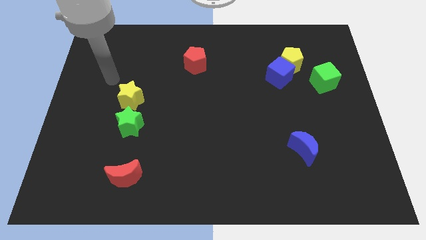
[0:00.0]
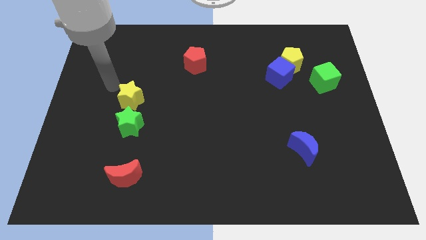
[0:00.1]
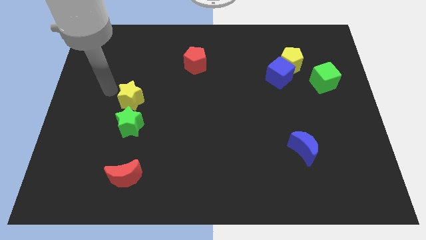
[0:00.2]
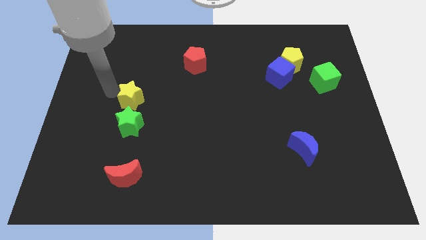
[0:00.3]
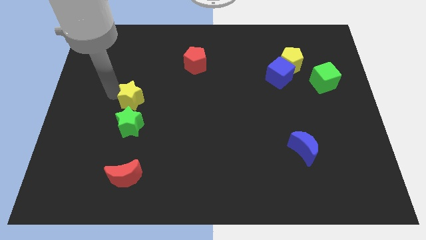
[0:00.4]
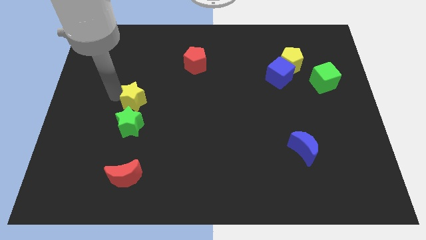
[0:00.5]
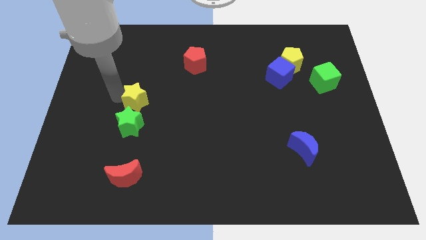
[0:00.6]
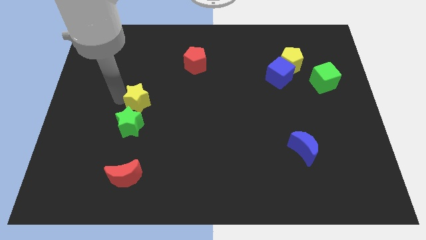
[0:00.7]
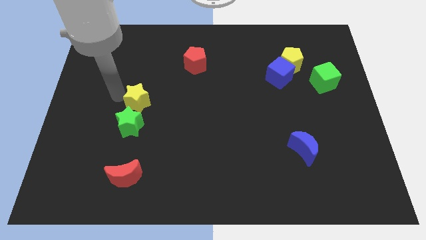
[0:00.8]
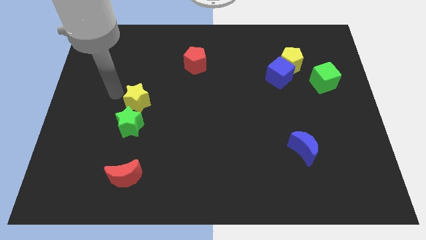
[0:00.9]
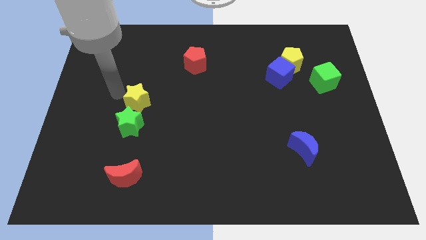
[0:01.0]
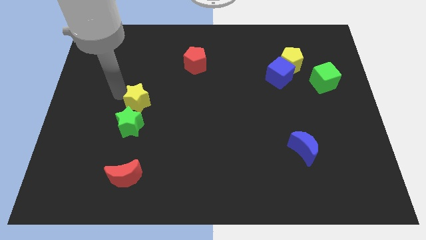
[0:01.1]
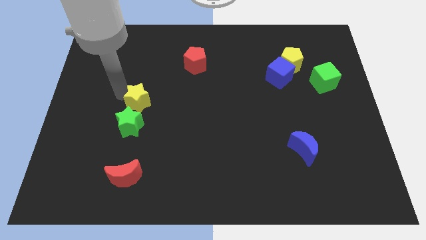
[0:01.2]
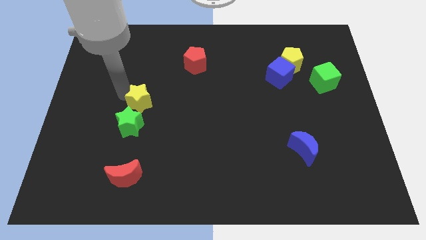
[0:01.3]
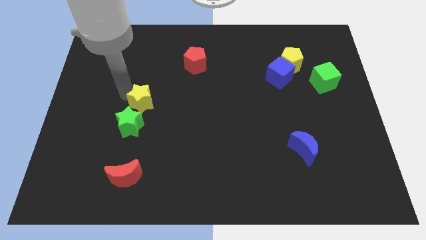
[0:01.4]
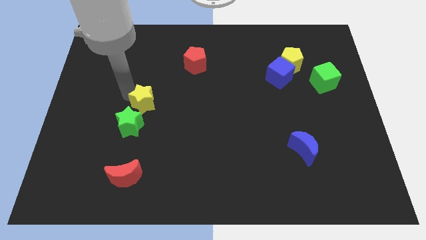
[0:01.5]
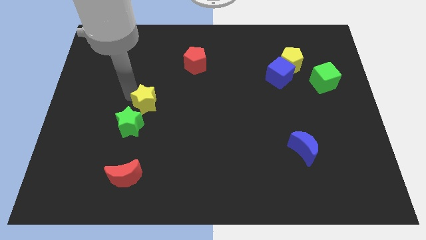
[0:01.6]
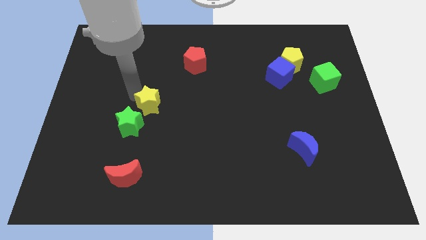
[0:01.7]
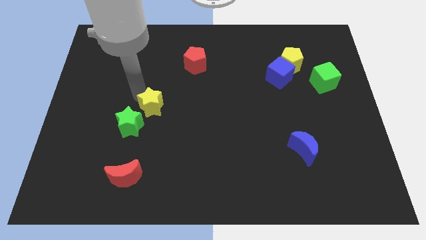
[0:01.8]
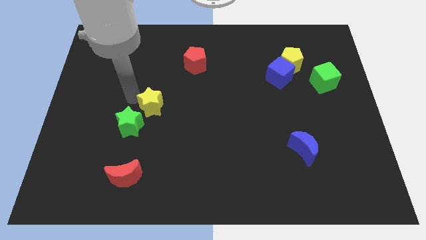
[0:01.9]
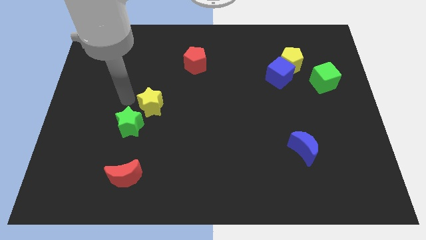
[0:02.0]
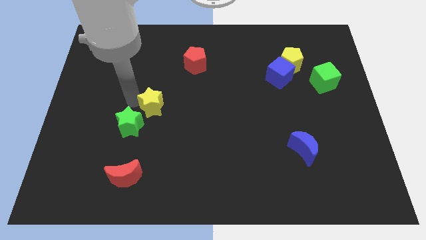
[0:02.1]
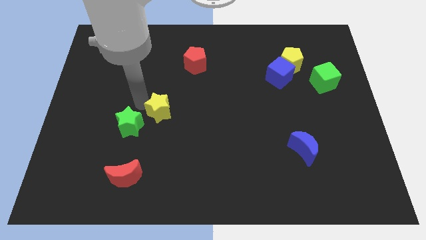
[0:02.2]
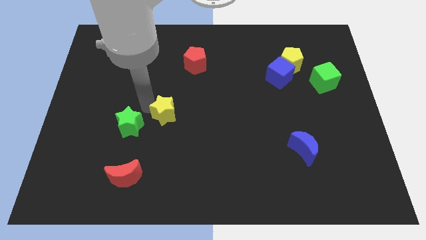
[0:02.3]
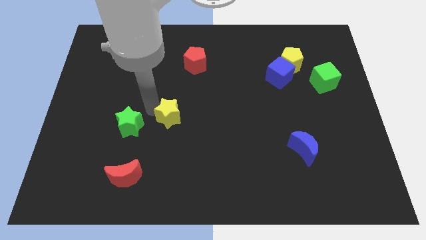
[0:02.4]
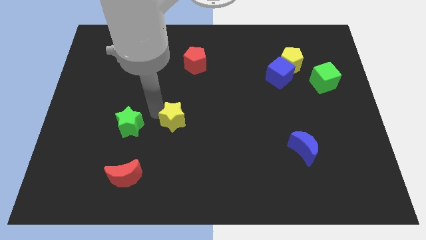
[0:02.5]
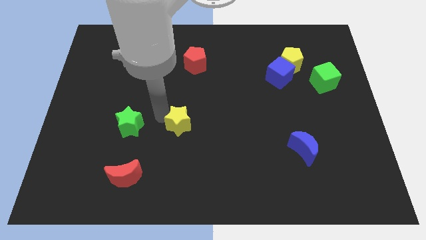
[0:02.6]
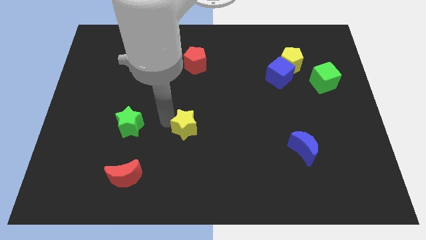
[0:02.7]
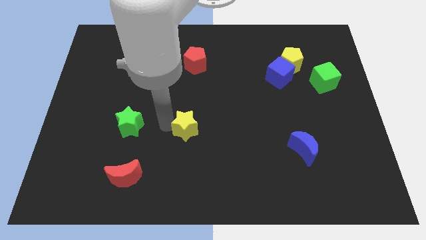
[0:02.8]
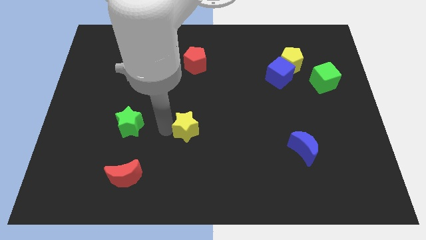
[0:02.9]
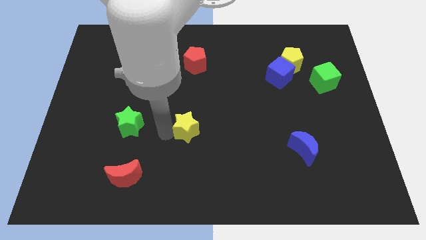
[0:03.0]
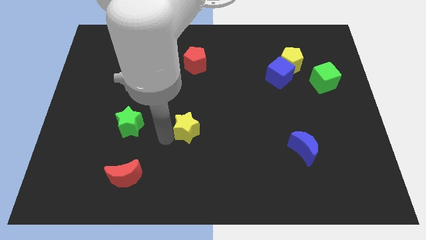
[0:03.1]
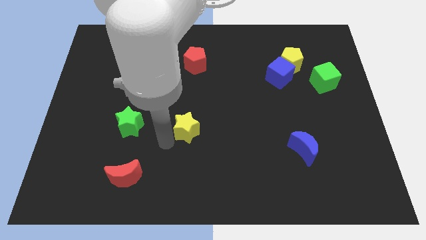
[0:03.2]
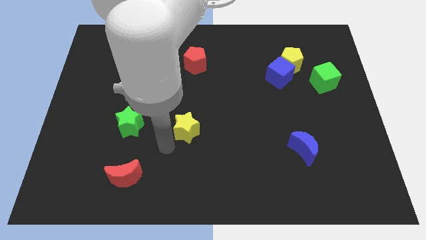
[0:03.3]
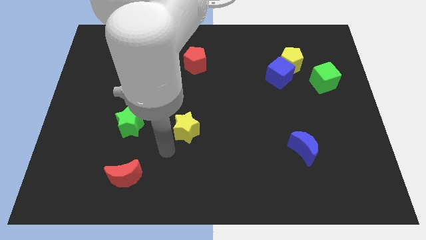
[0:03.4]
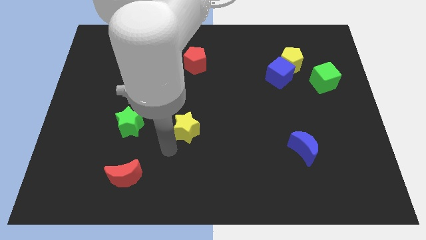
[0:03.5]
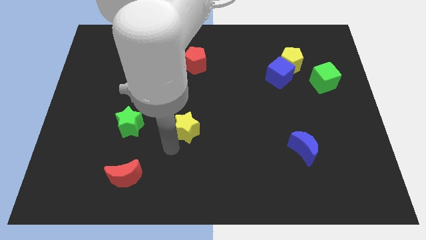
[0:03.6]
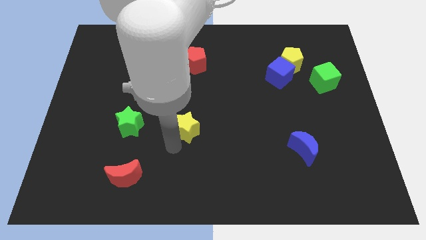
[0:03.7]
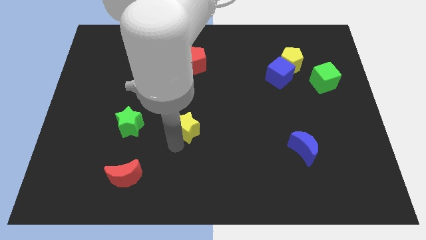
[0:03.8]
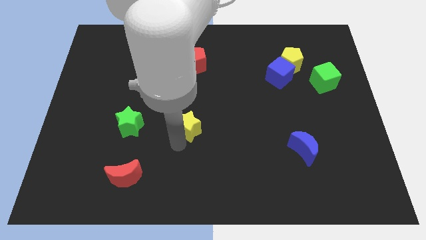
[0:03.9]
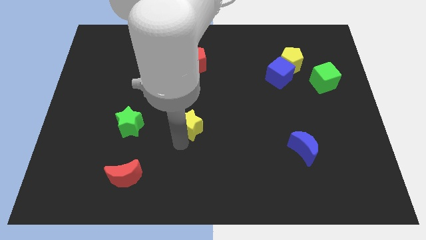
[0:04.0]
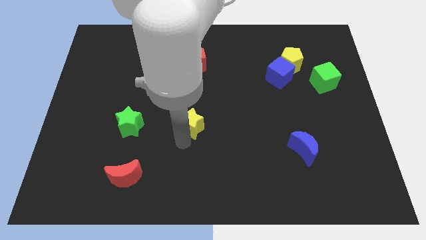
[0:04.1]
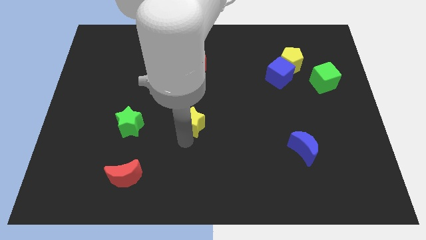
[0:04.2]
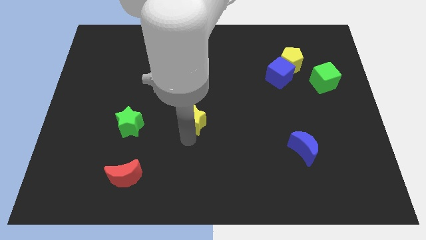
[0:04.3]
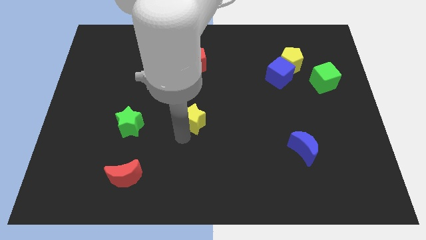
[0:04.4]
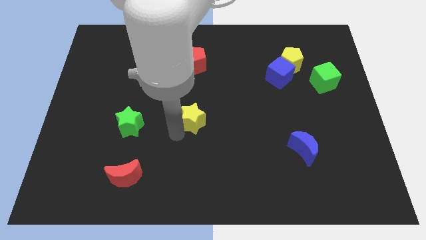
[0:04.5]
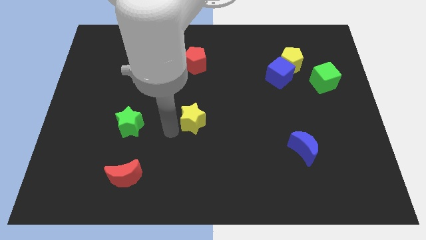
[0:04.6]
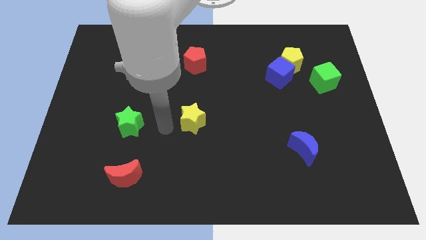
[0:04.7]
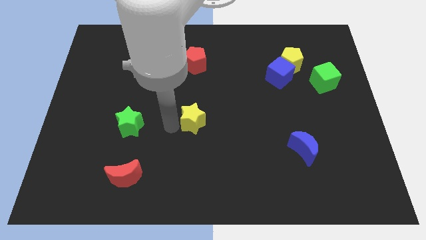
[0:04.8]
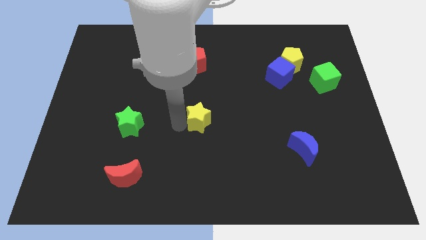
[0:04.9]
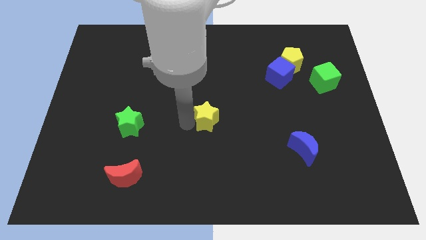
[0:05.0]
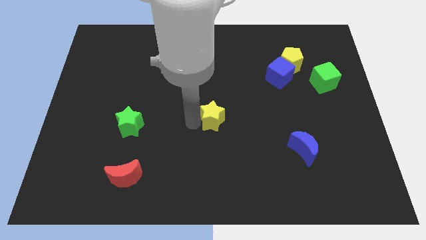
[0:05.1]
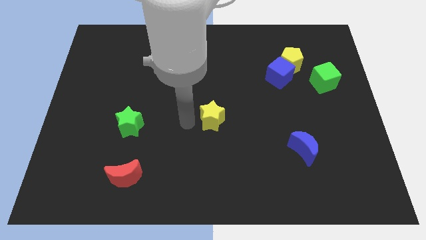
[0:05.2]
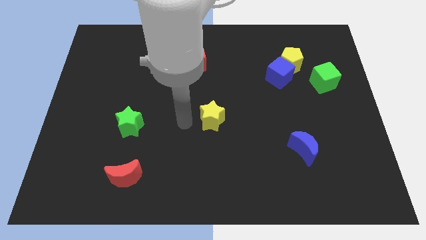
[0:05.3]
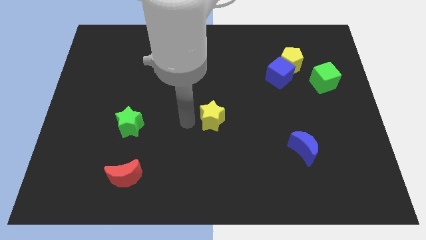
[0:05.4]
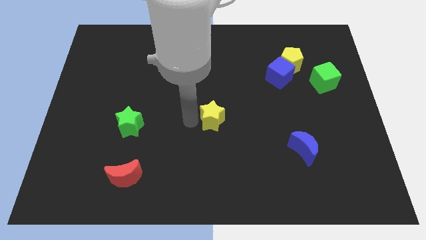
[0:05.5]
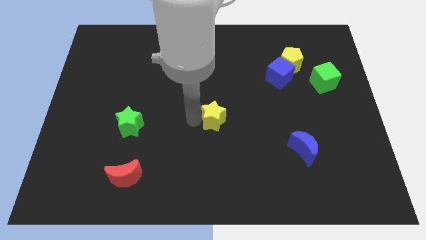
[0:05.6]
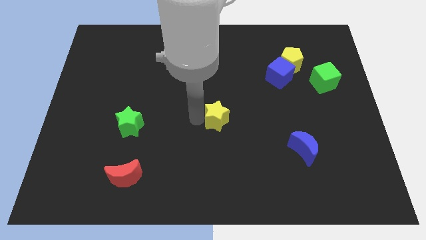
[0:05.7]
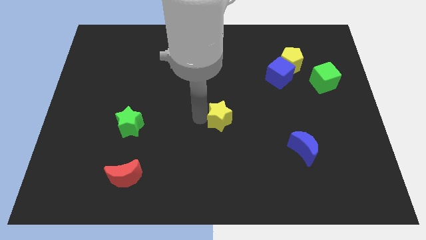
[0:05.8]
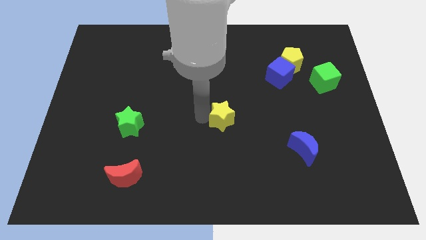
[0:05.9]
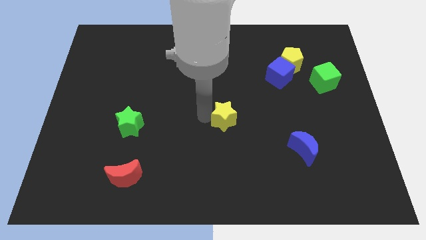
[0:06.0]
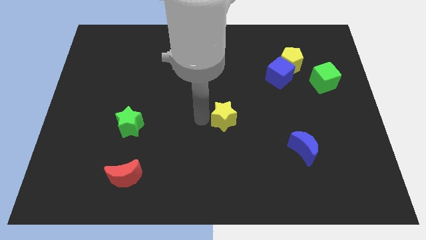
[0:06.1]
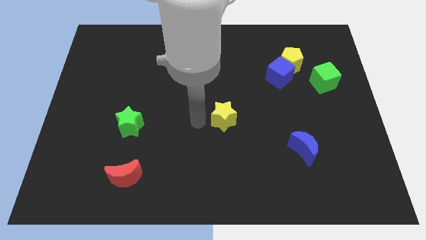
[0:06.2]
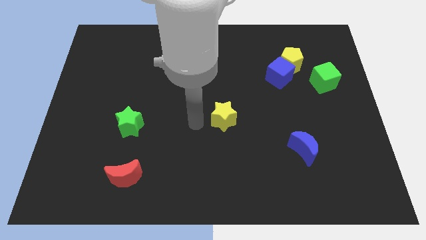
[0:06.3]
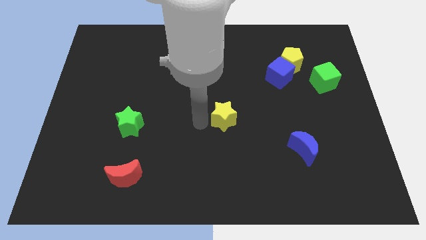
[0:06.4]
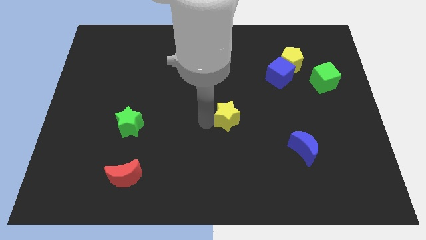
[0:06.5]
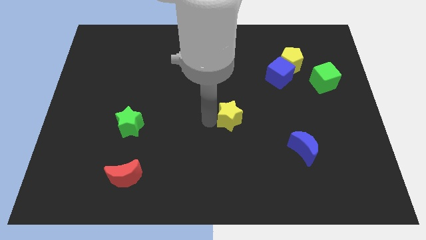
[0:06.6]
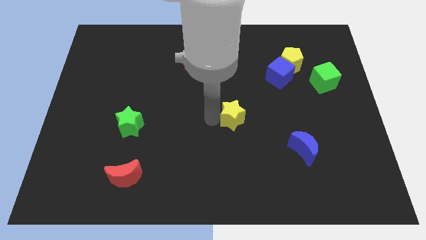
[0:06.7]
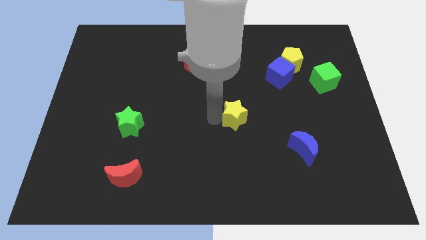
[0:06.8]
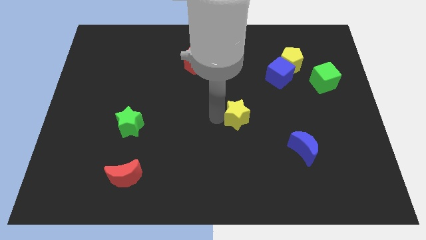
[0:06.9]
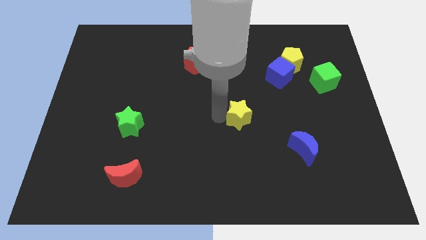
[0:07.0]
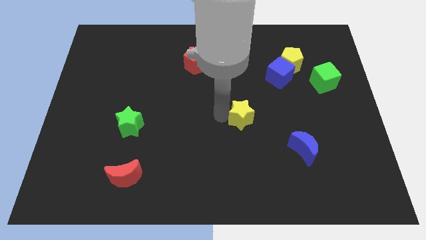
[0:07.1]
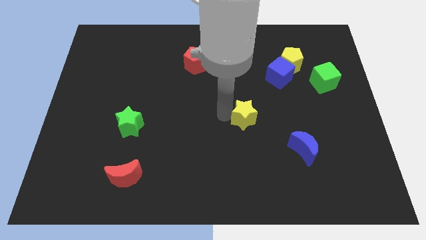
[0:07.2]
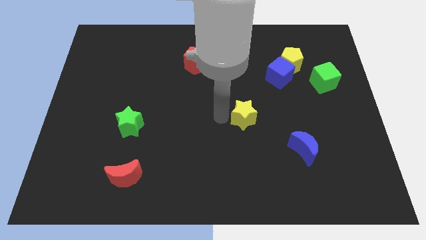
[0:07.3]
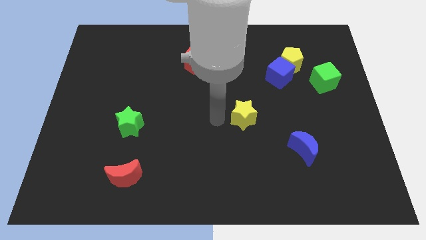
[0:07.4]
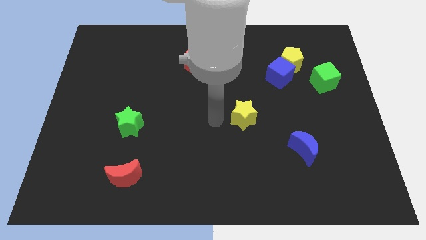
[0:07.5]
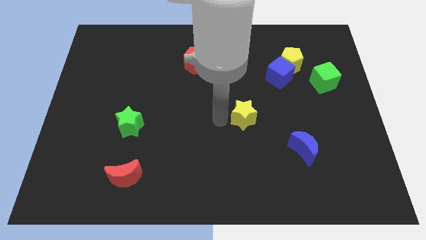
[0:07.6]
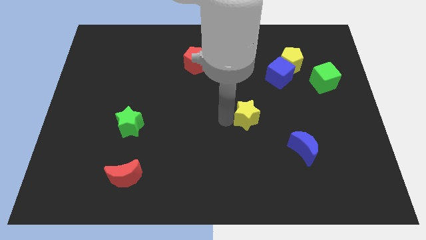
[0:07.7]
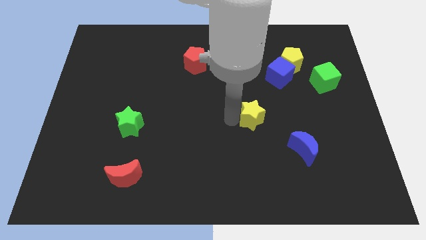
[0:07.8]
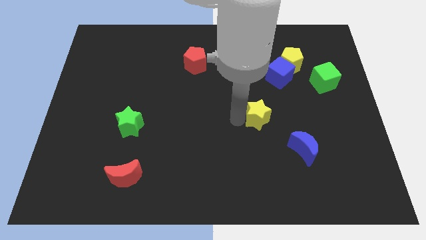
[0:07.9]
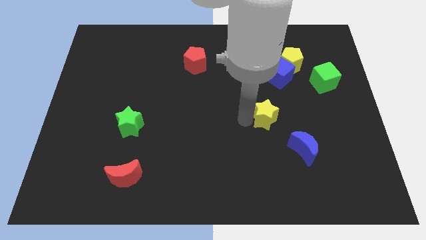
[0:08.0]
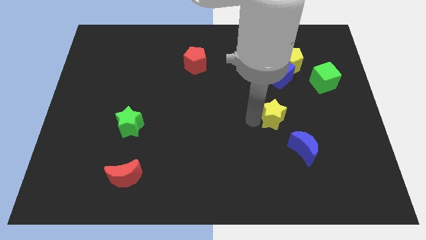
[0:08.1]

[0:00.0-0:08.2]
push the yellow star to the bottom of the blue cube
